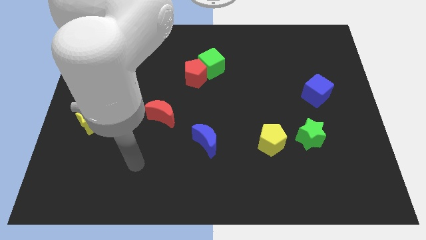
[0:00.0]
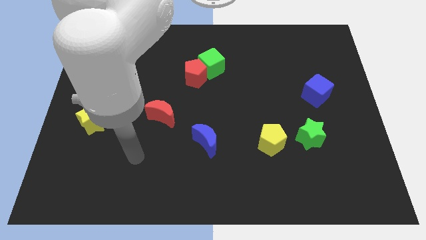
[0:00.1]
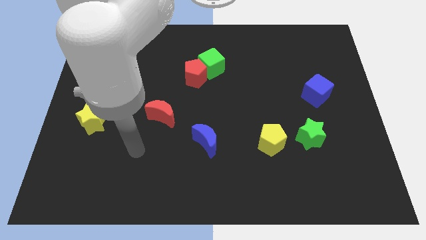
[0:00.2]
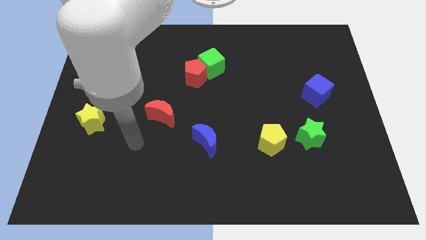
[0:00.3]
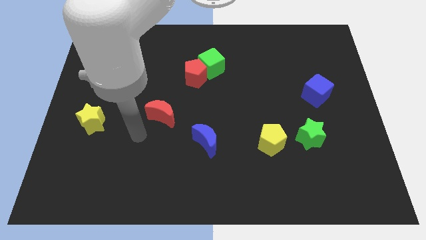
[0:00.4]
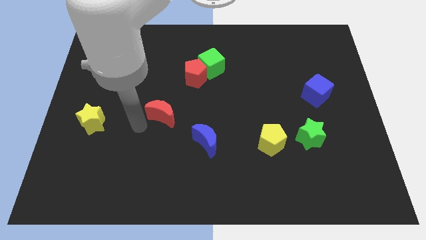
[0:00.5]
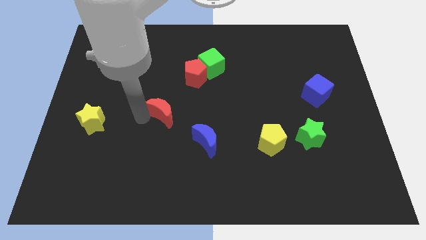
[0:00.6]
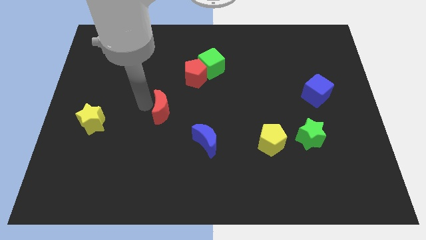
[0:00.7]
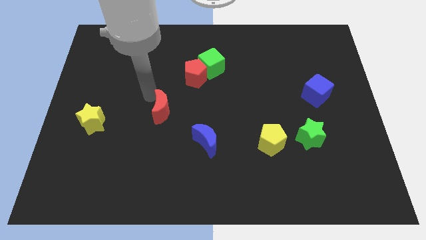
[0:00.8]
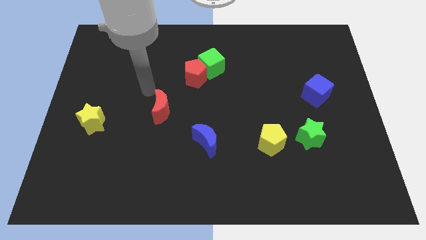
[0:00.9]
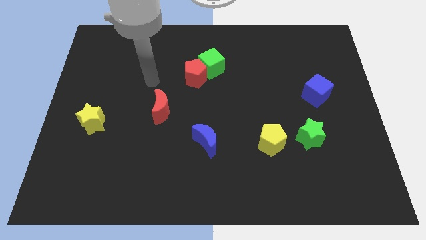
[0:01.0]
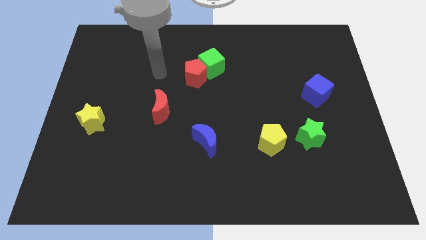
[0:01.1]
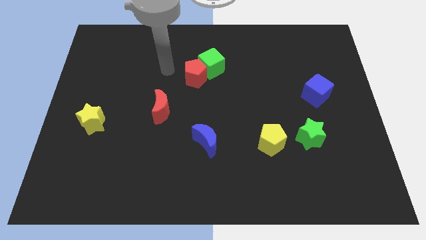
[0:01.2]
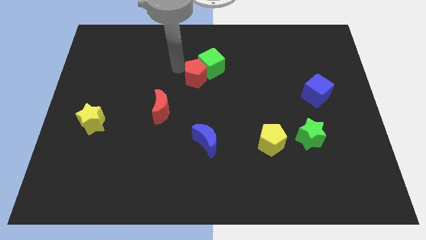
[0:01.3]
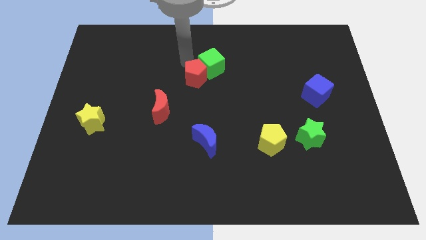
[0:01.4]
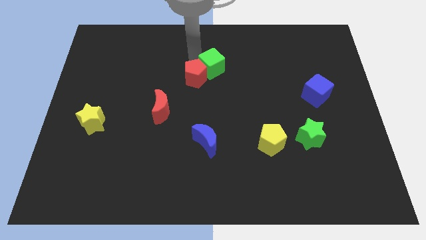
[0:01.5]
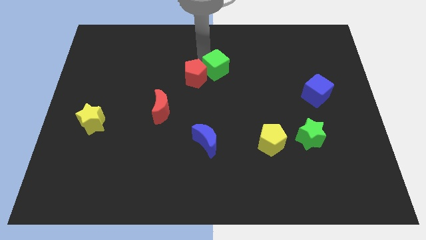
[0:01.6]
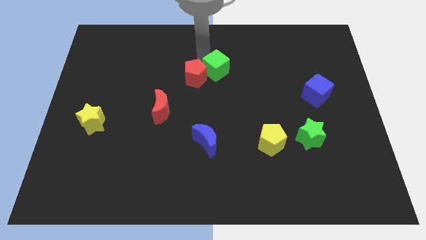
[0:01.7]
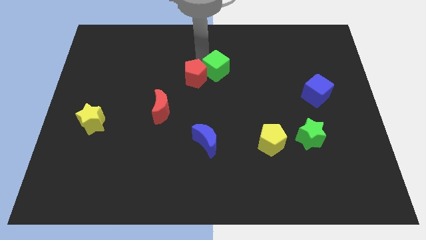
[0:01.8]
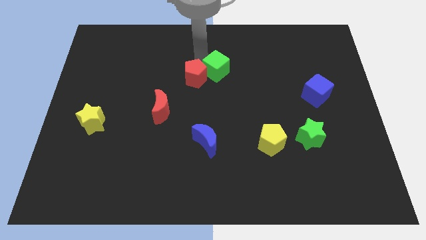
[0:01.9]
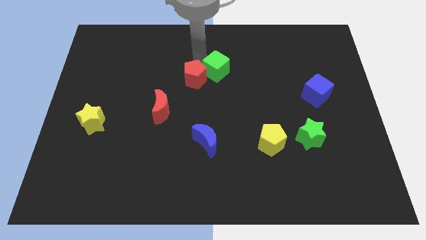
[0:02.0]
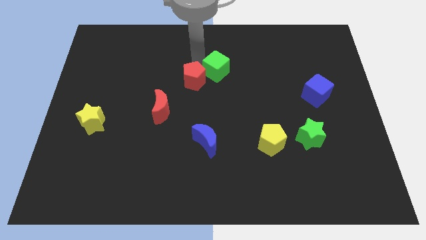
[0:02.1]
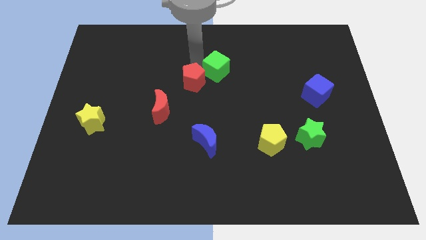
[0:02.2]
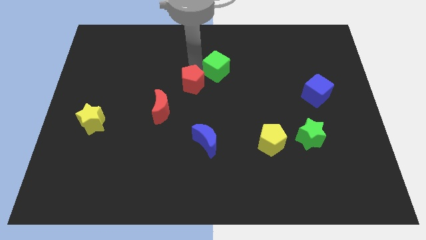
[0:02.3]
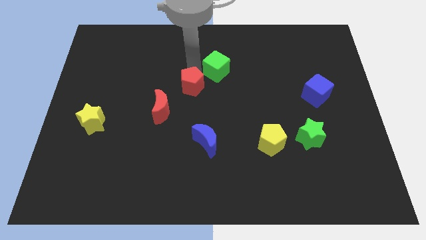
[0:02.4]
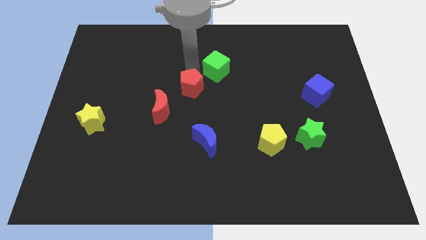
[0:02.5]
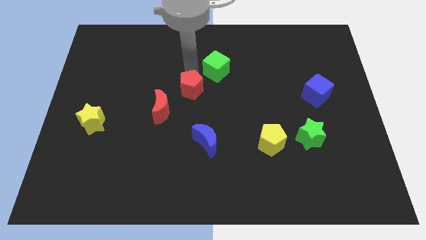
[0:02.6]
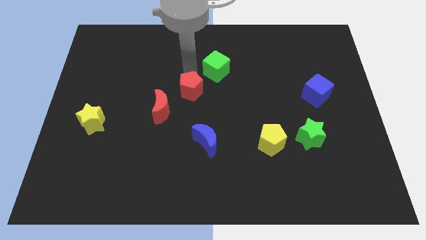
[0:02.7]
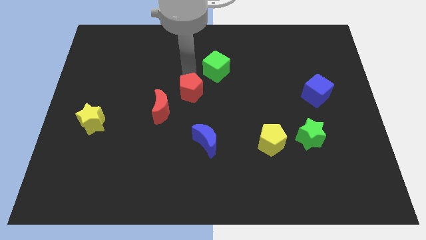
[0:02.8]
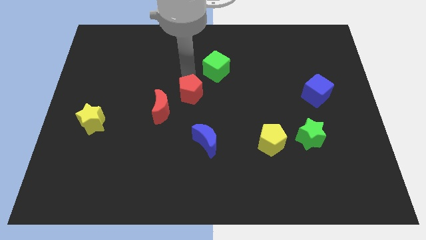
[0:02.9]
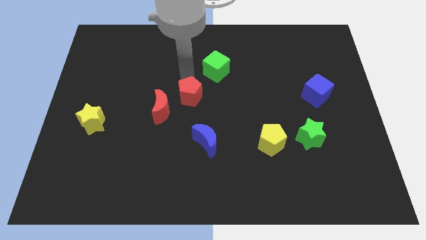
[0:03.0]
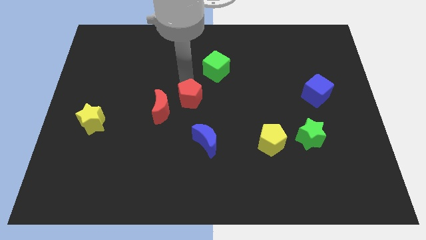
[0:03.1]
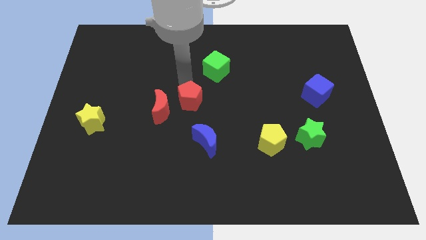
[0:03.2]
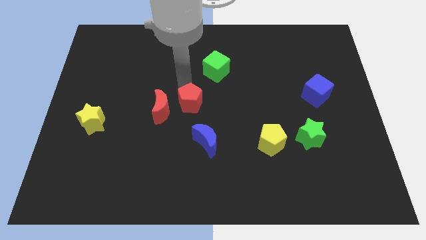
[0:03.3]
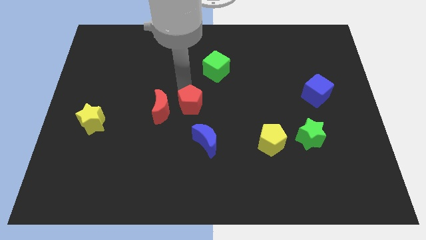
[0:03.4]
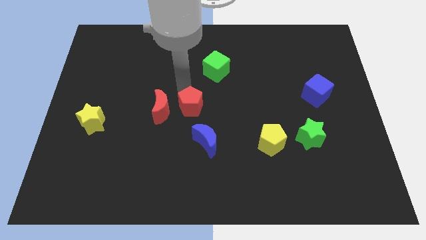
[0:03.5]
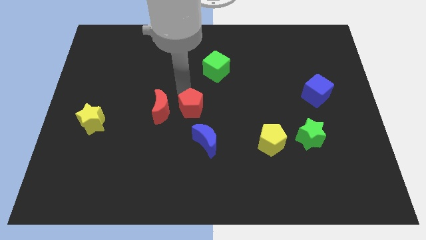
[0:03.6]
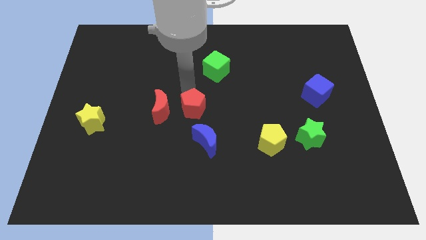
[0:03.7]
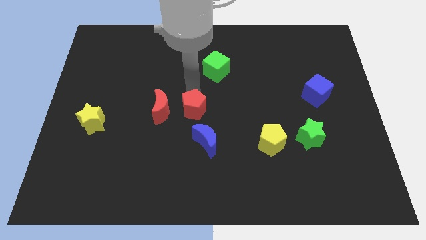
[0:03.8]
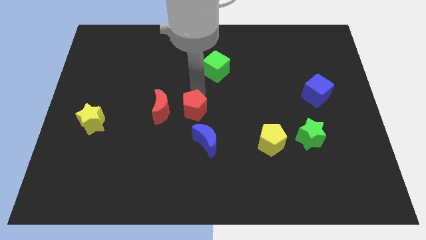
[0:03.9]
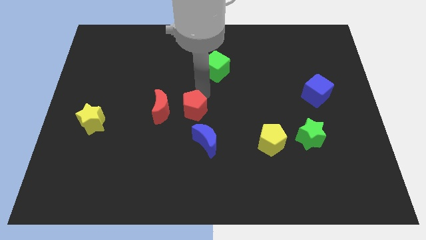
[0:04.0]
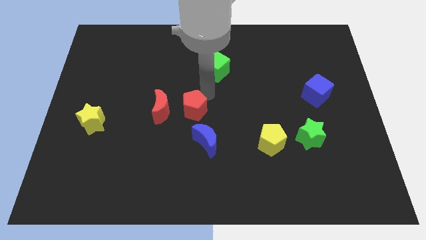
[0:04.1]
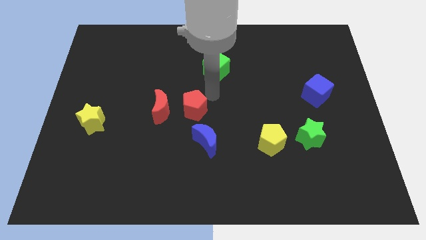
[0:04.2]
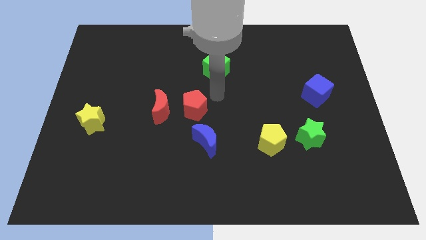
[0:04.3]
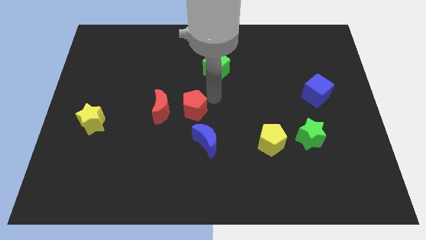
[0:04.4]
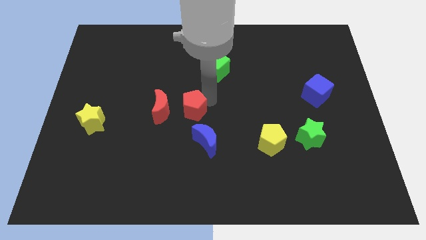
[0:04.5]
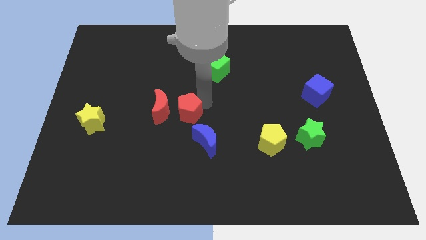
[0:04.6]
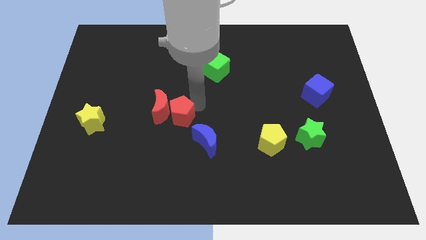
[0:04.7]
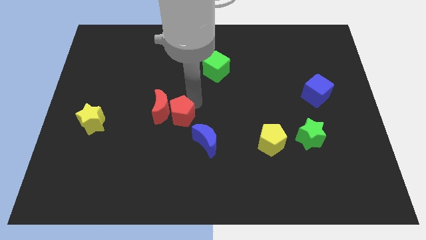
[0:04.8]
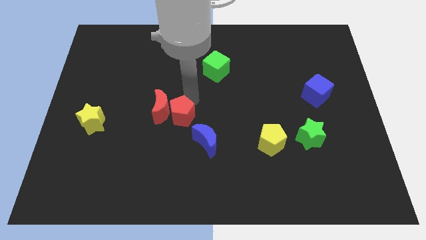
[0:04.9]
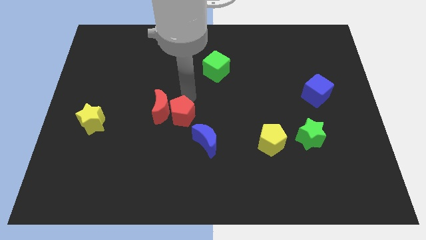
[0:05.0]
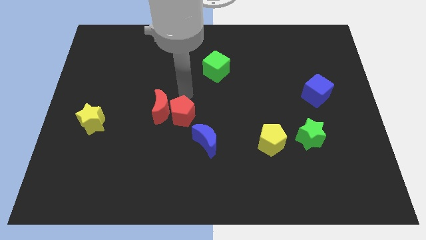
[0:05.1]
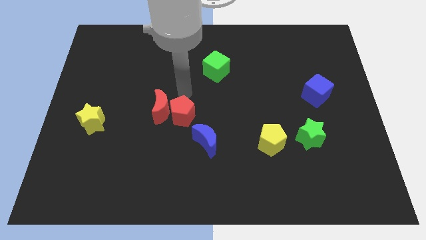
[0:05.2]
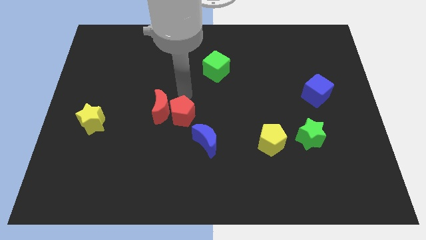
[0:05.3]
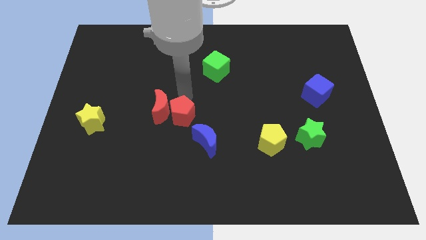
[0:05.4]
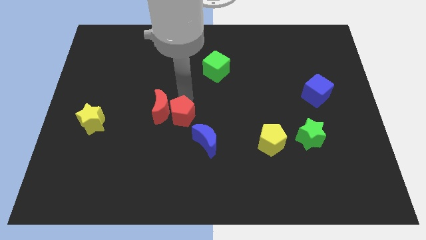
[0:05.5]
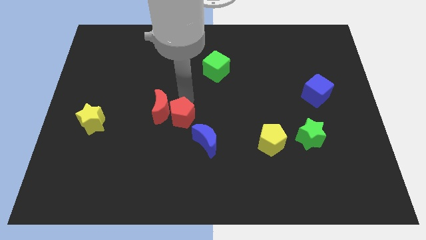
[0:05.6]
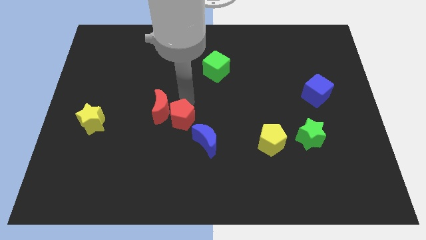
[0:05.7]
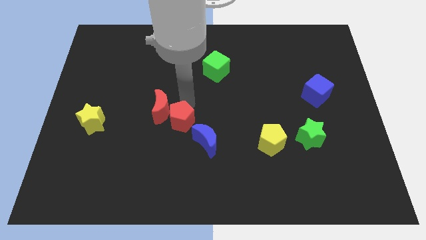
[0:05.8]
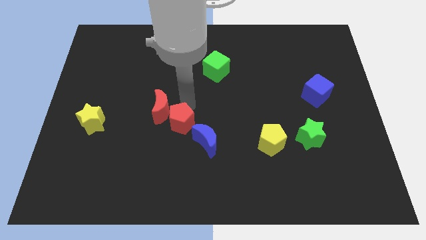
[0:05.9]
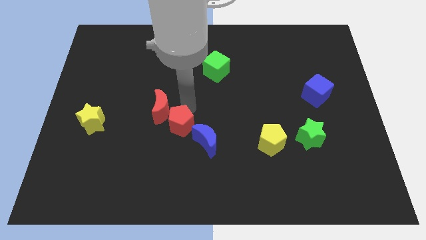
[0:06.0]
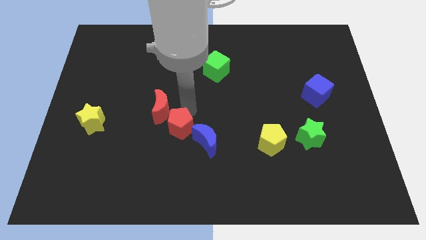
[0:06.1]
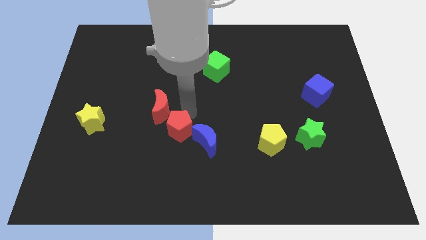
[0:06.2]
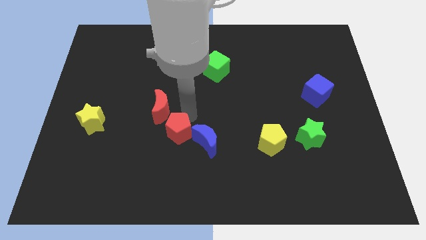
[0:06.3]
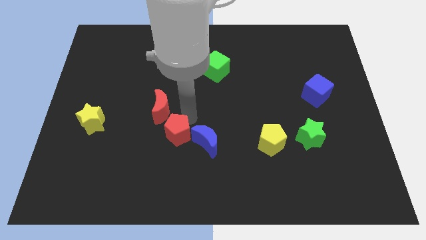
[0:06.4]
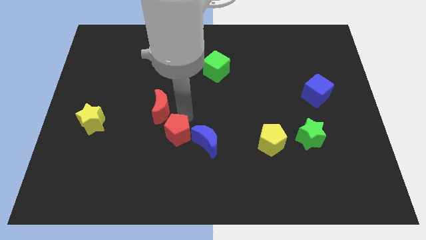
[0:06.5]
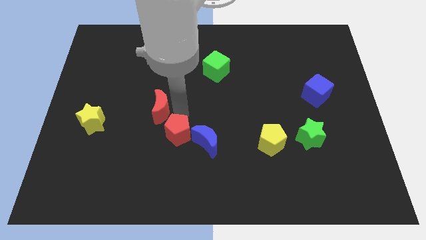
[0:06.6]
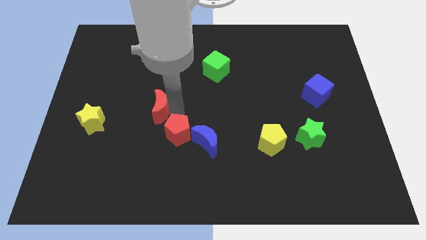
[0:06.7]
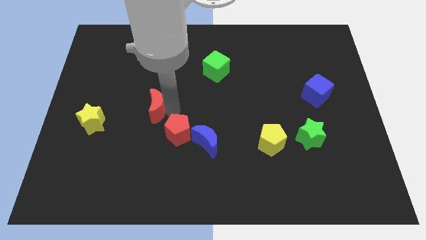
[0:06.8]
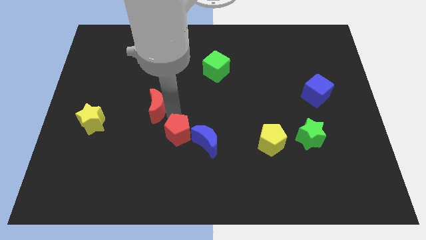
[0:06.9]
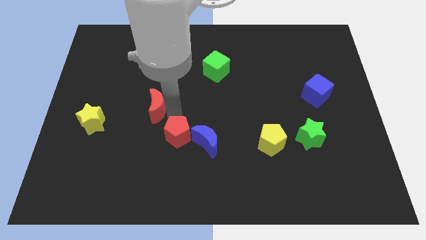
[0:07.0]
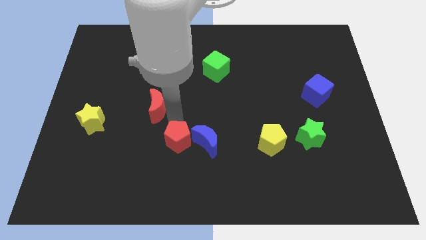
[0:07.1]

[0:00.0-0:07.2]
put the red pentagon to the bottom left side of the blue moon
